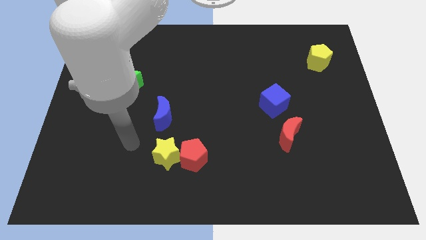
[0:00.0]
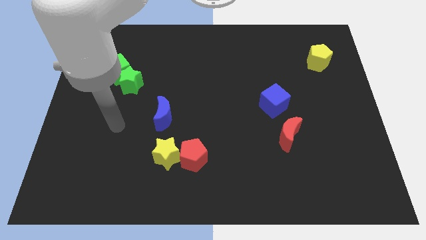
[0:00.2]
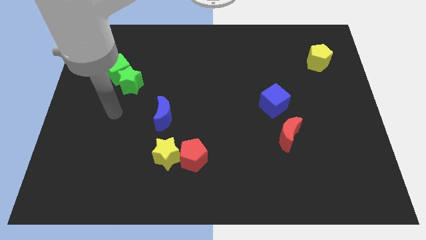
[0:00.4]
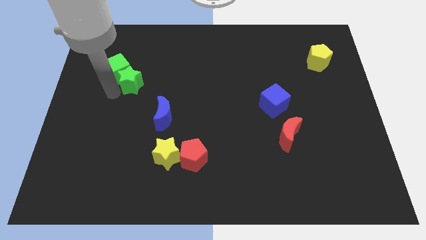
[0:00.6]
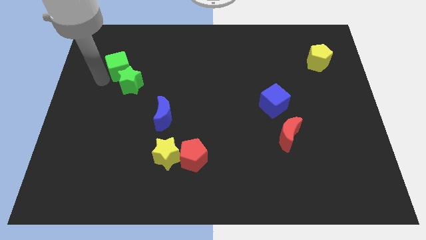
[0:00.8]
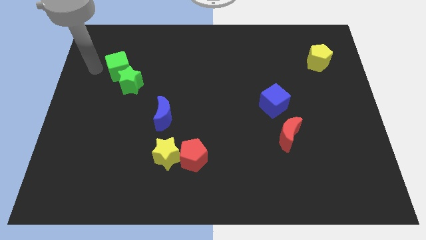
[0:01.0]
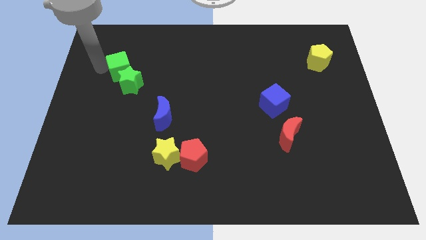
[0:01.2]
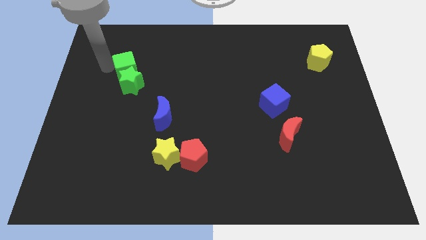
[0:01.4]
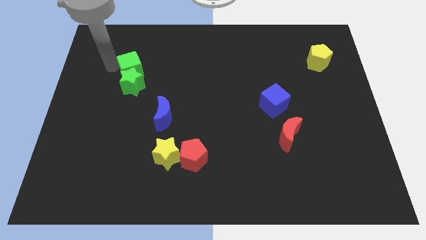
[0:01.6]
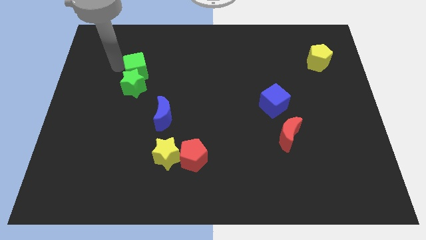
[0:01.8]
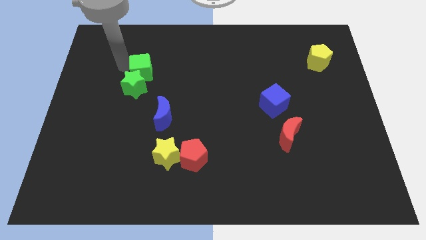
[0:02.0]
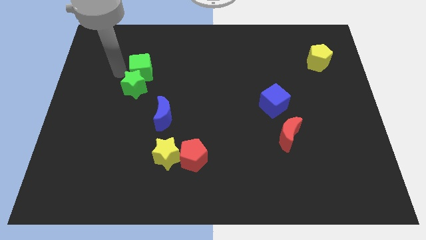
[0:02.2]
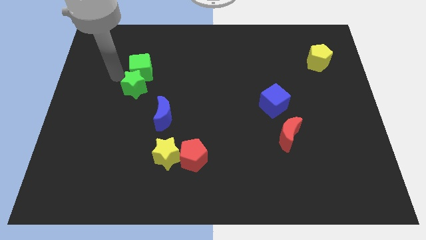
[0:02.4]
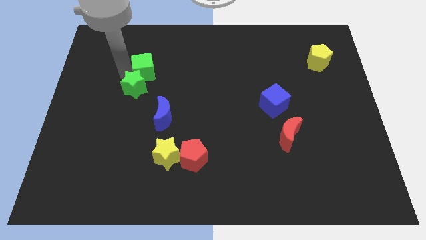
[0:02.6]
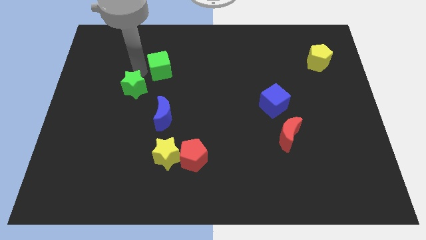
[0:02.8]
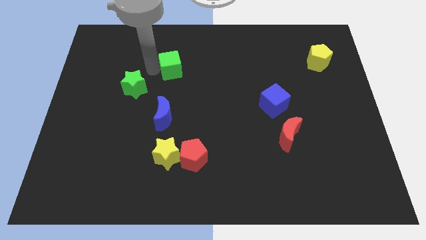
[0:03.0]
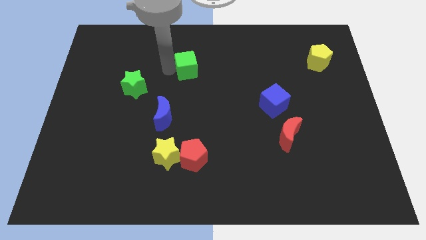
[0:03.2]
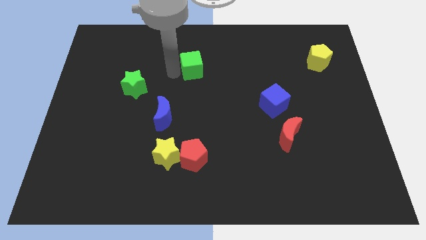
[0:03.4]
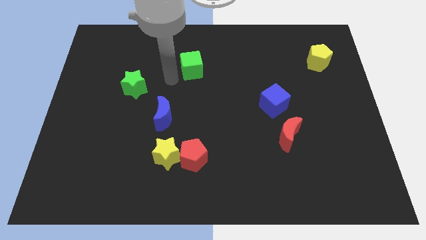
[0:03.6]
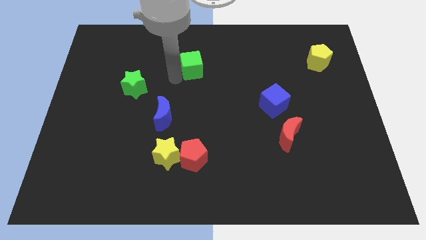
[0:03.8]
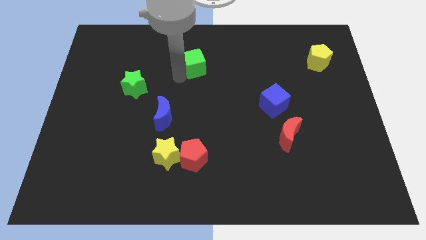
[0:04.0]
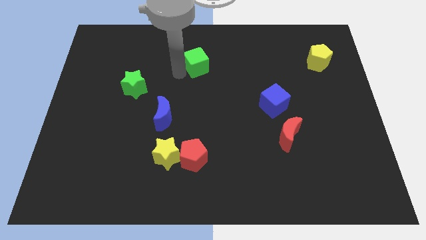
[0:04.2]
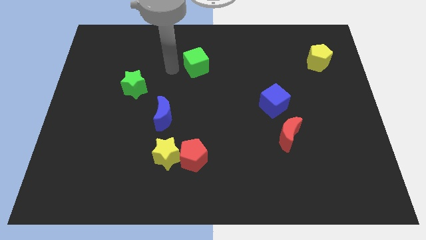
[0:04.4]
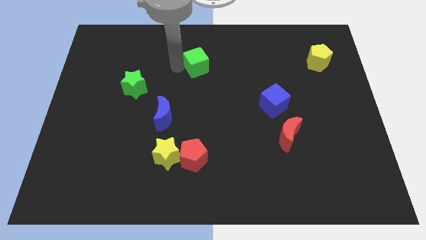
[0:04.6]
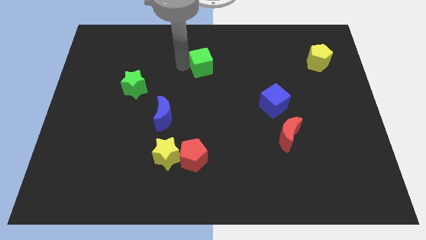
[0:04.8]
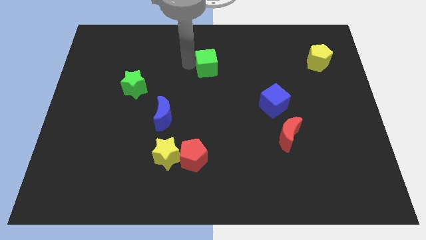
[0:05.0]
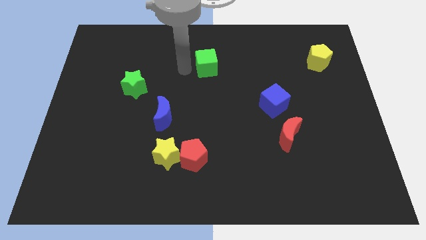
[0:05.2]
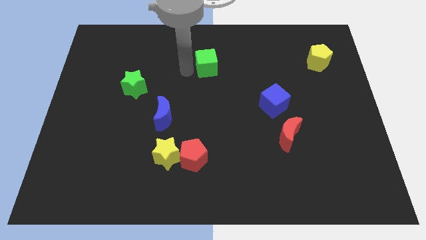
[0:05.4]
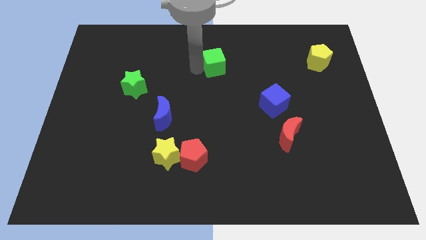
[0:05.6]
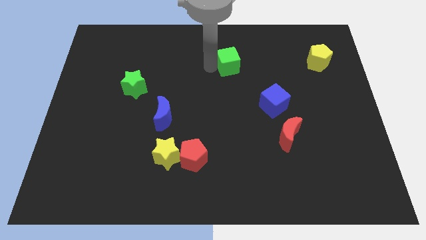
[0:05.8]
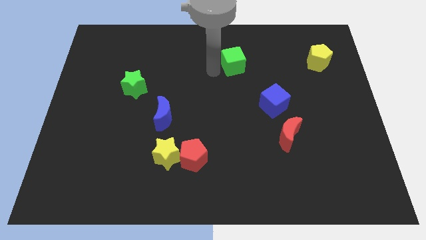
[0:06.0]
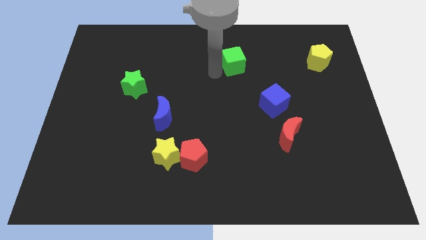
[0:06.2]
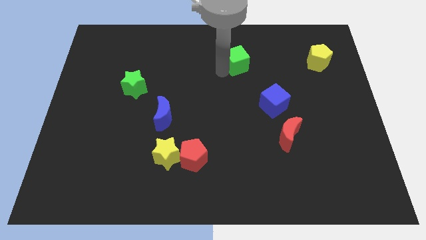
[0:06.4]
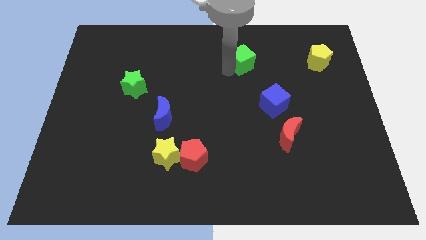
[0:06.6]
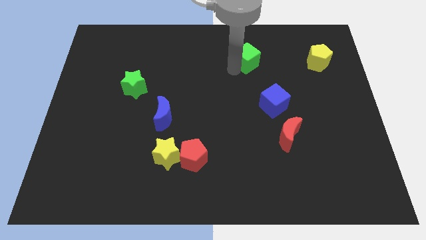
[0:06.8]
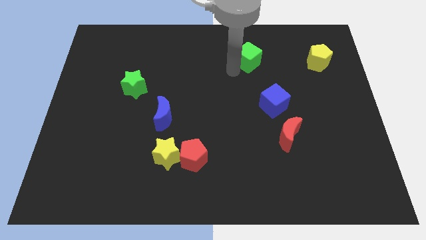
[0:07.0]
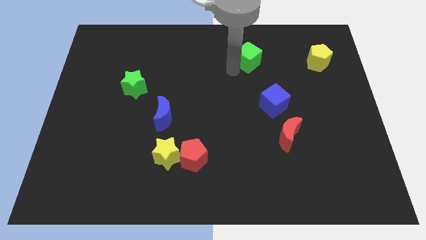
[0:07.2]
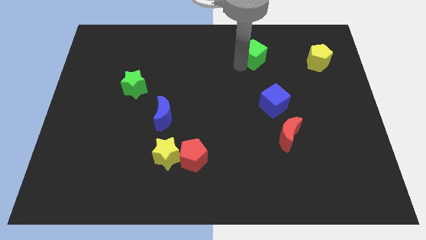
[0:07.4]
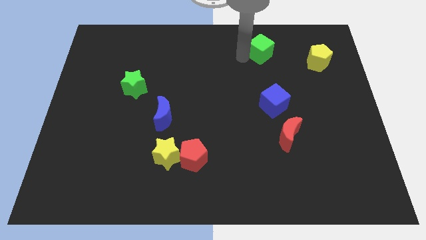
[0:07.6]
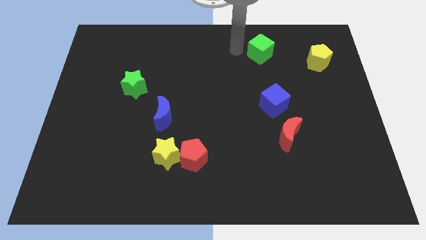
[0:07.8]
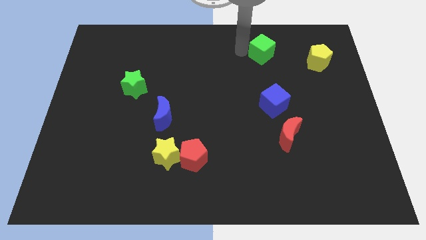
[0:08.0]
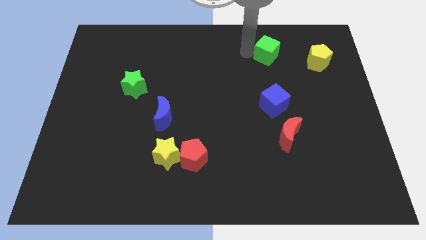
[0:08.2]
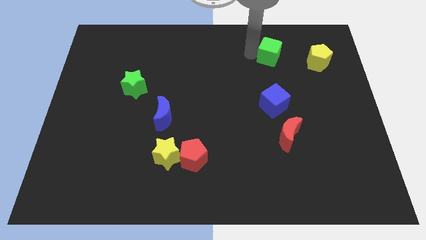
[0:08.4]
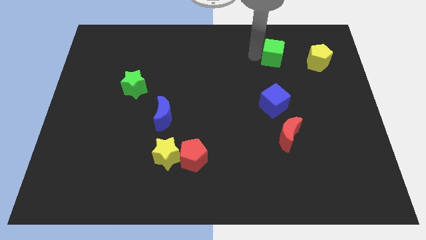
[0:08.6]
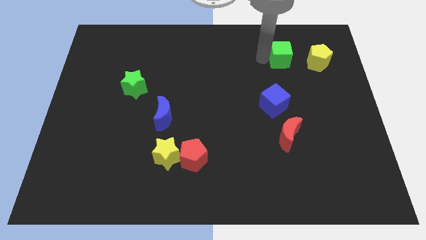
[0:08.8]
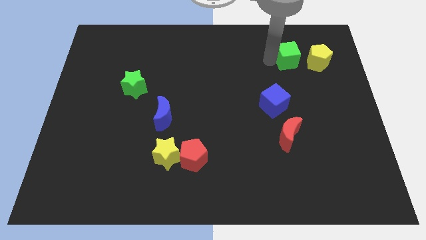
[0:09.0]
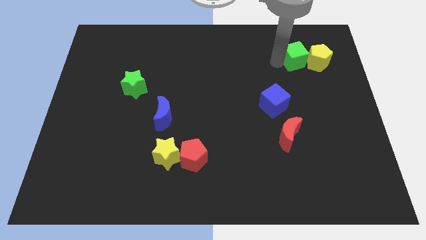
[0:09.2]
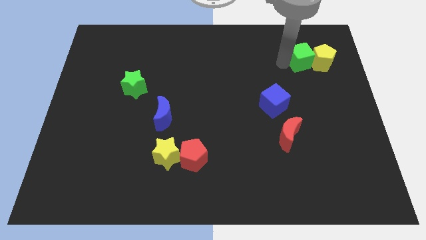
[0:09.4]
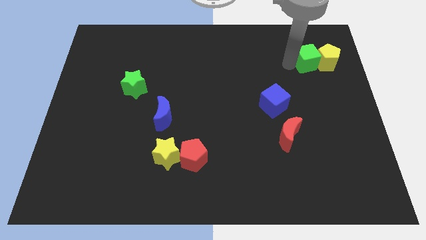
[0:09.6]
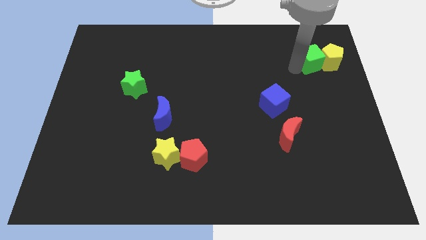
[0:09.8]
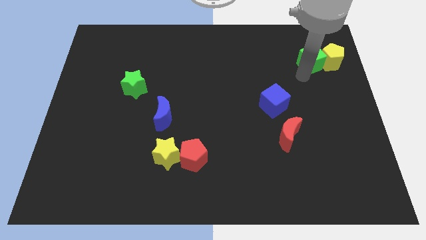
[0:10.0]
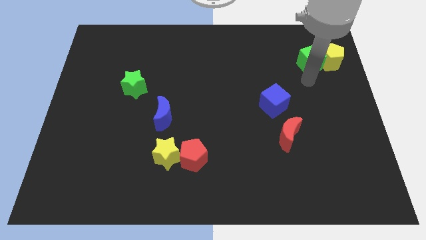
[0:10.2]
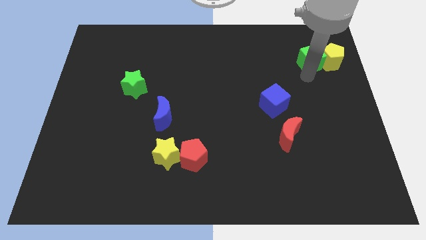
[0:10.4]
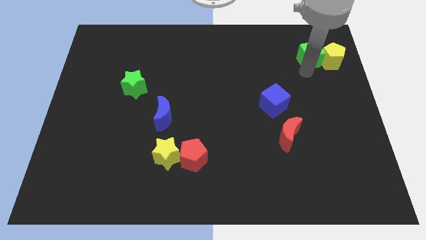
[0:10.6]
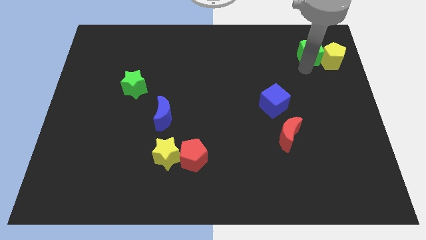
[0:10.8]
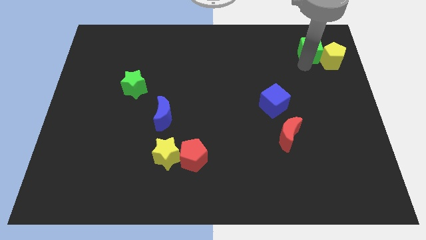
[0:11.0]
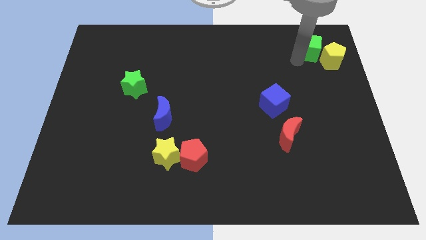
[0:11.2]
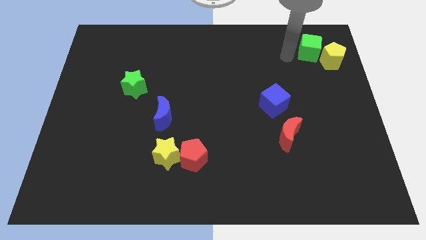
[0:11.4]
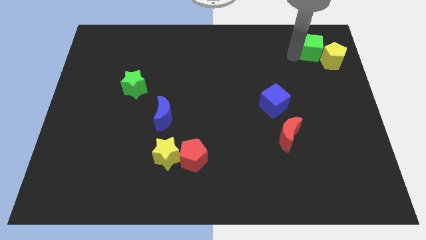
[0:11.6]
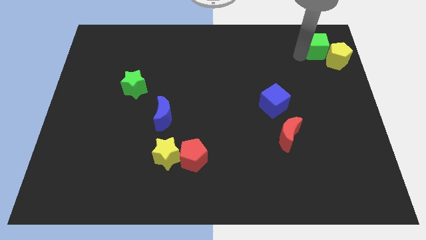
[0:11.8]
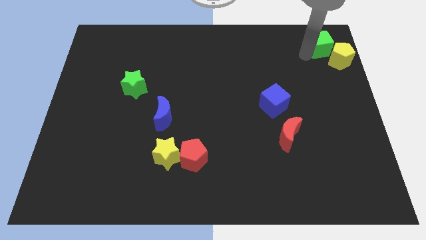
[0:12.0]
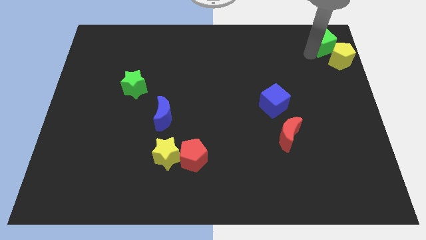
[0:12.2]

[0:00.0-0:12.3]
move the green cube to the top right
